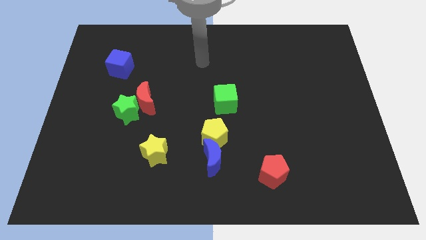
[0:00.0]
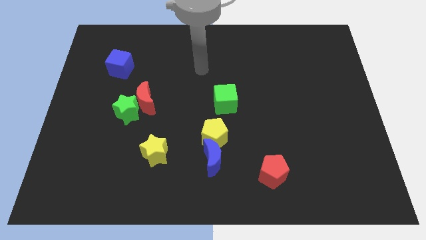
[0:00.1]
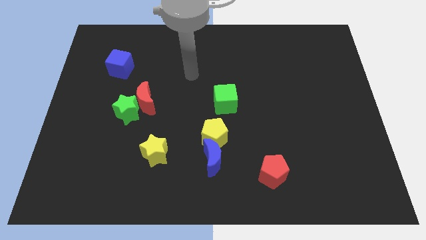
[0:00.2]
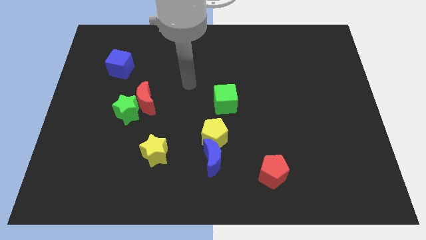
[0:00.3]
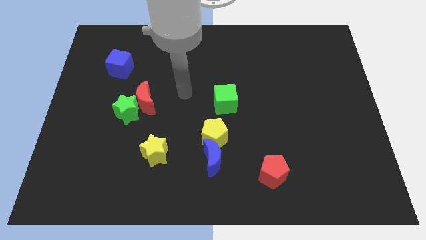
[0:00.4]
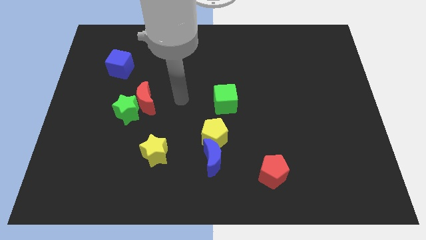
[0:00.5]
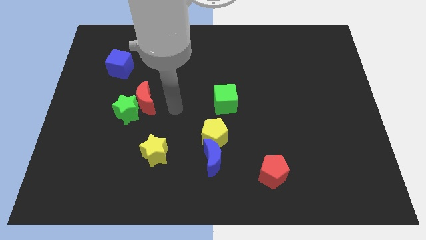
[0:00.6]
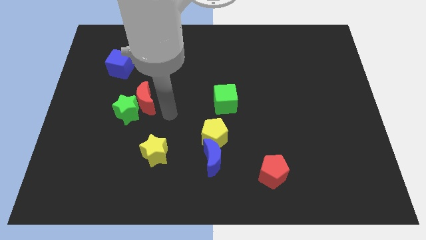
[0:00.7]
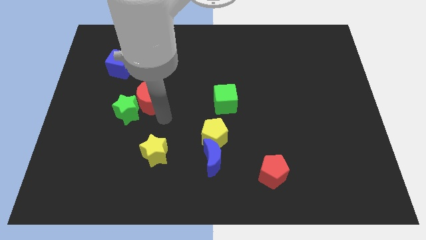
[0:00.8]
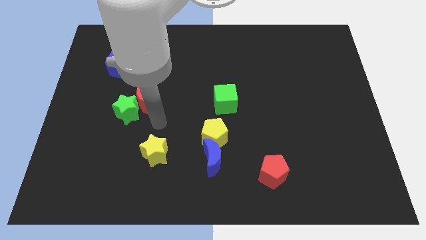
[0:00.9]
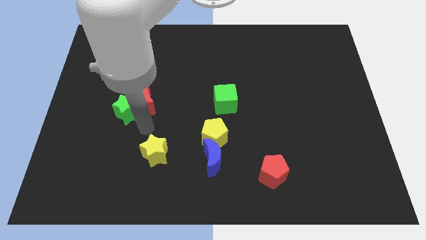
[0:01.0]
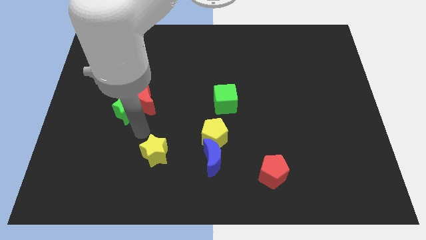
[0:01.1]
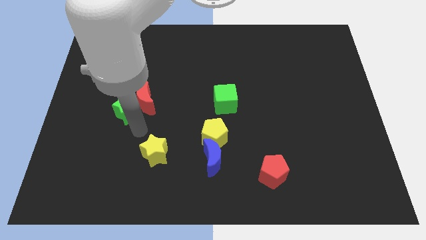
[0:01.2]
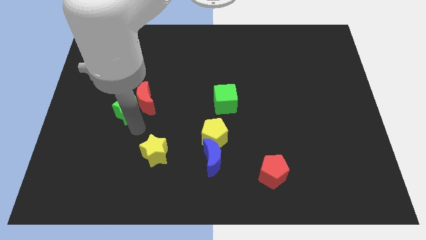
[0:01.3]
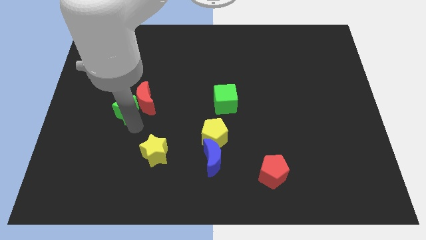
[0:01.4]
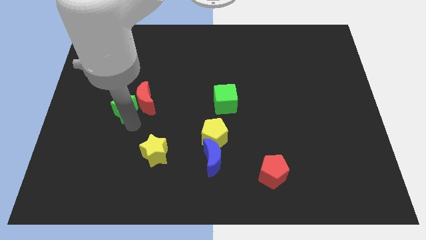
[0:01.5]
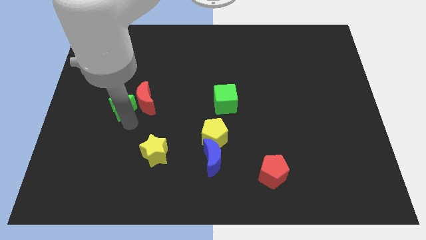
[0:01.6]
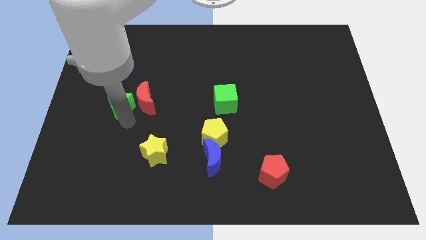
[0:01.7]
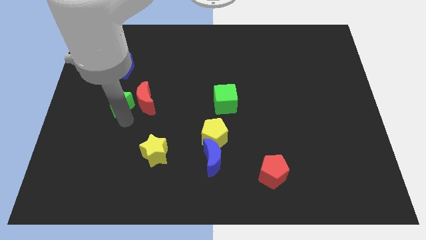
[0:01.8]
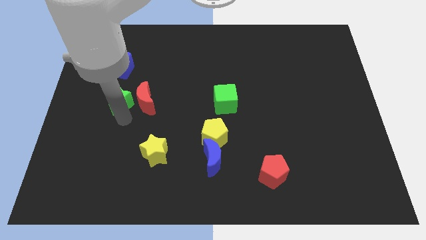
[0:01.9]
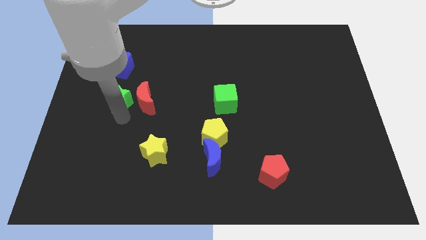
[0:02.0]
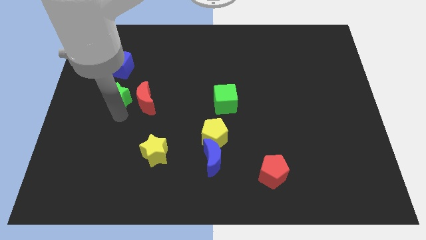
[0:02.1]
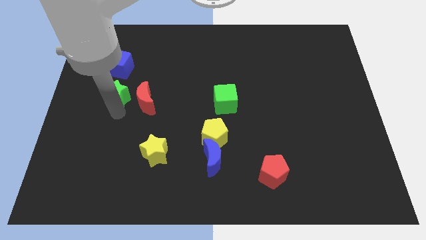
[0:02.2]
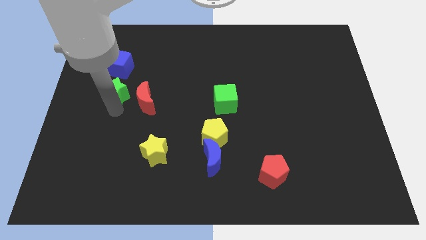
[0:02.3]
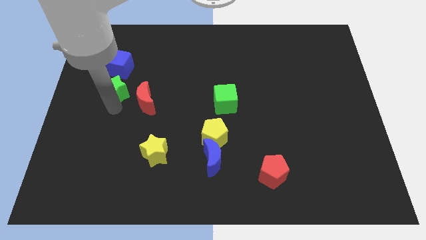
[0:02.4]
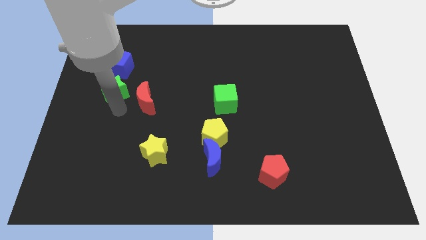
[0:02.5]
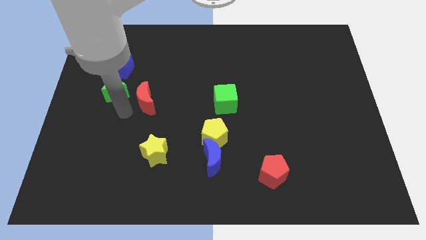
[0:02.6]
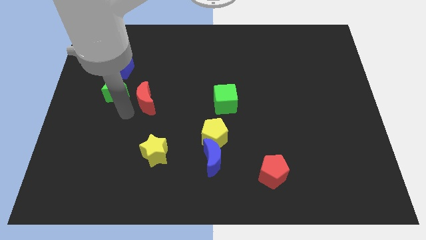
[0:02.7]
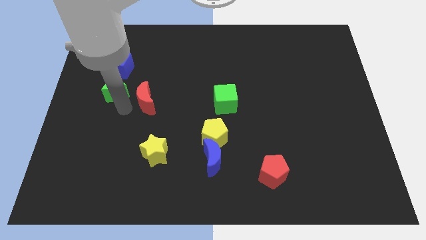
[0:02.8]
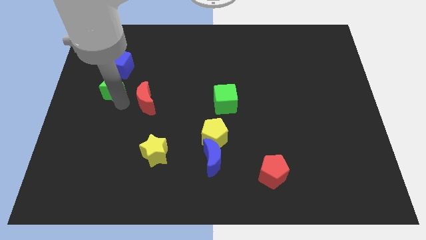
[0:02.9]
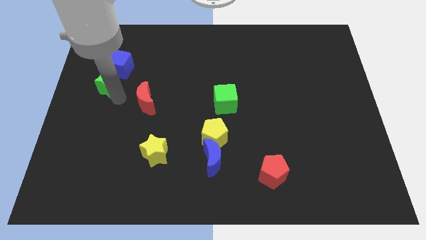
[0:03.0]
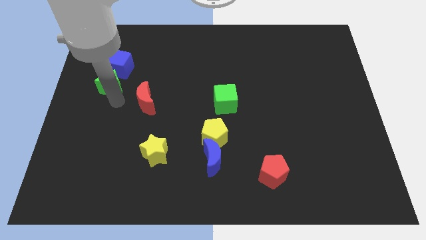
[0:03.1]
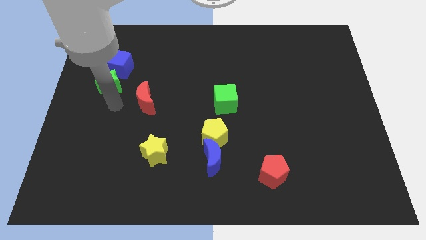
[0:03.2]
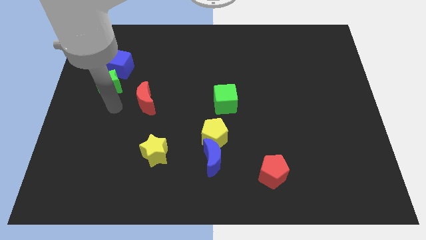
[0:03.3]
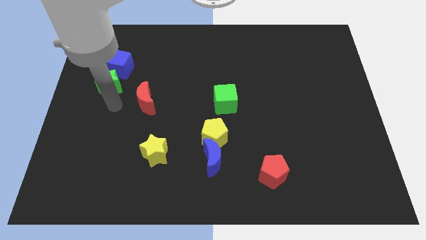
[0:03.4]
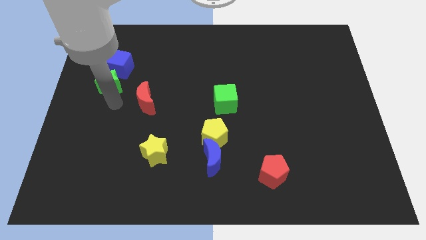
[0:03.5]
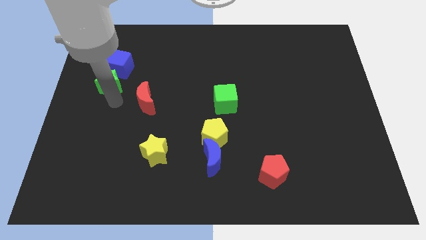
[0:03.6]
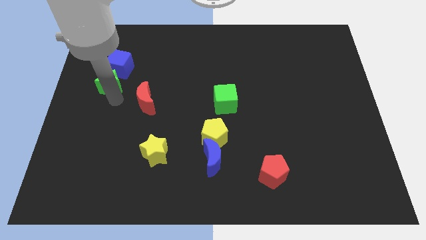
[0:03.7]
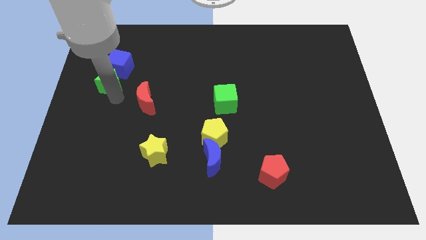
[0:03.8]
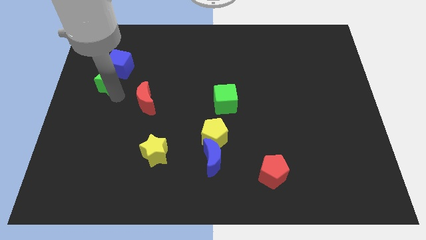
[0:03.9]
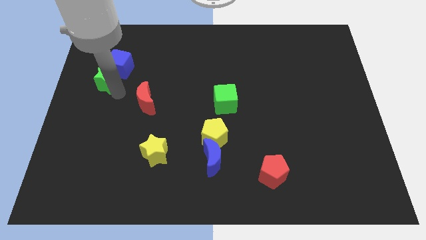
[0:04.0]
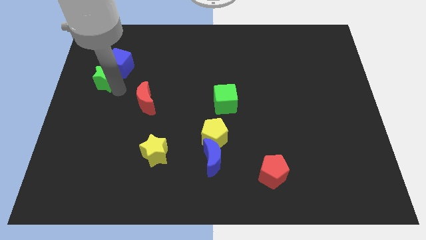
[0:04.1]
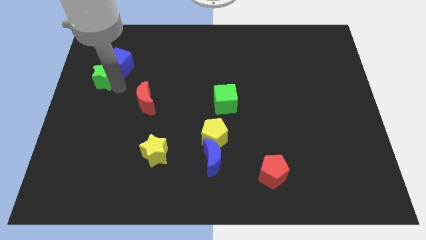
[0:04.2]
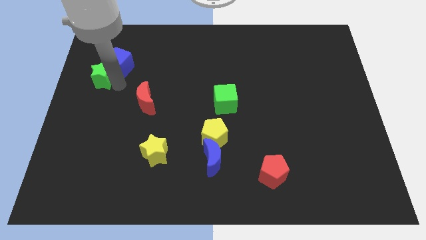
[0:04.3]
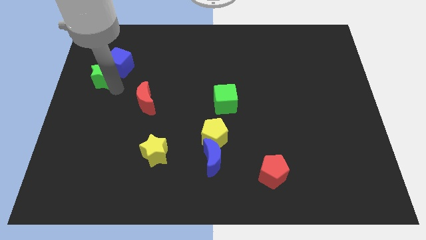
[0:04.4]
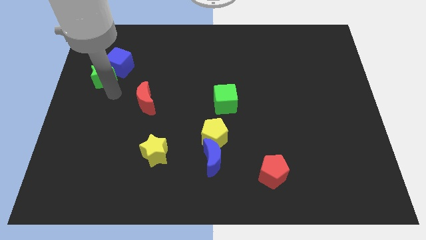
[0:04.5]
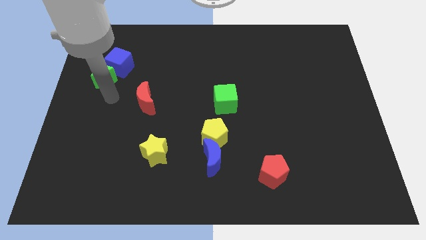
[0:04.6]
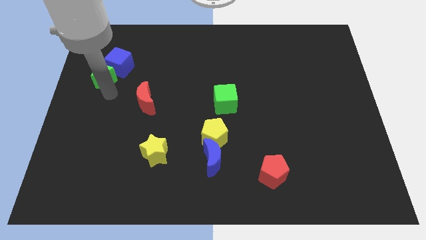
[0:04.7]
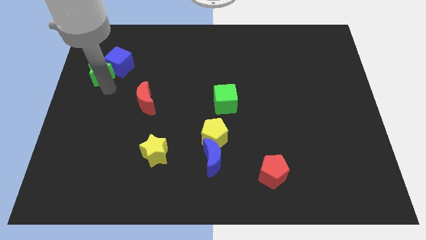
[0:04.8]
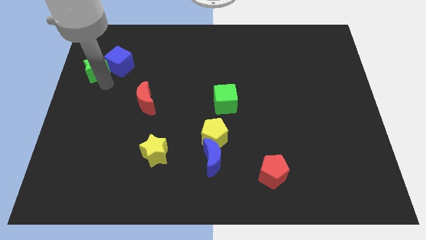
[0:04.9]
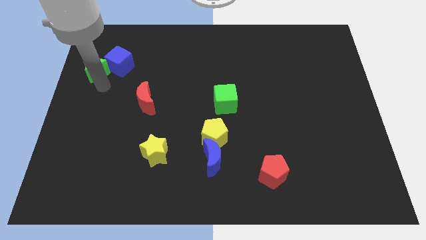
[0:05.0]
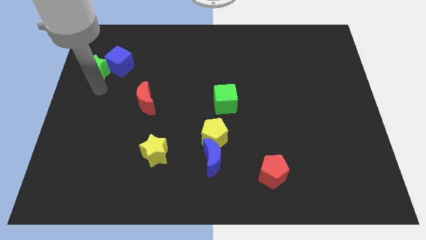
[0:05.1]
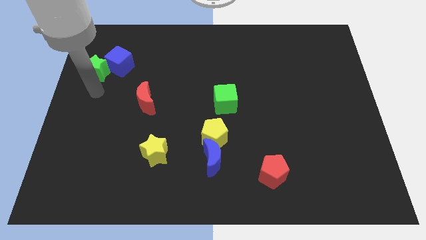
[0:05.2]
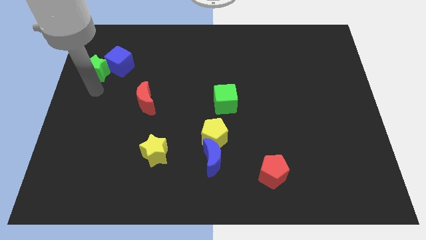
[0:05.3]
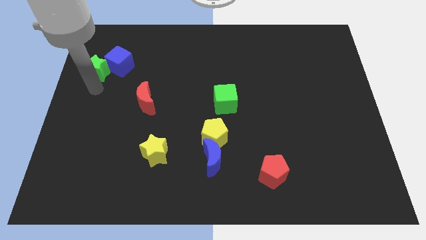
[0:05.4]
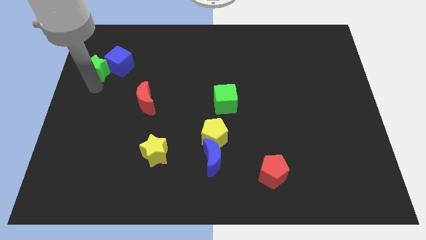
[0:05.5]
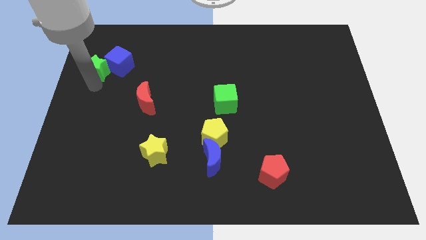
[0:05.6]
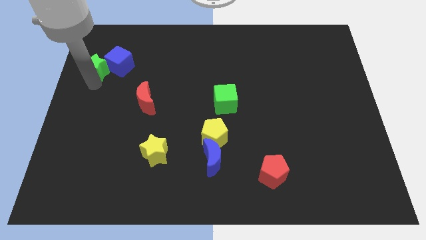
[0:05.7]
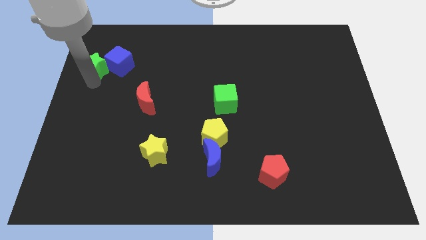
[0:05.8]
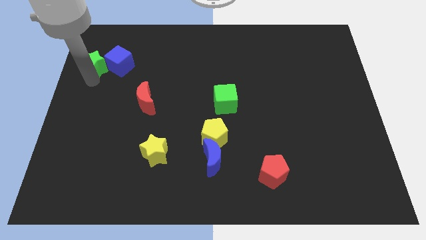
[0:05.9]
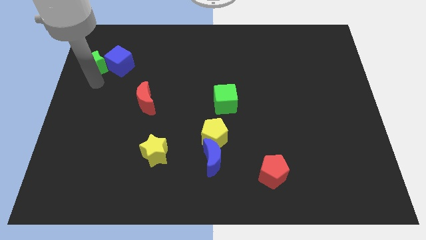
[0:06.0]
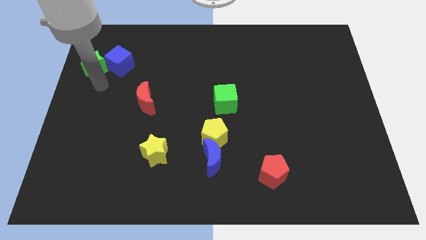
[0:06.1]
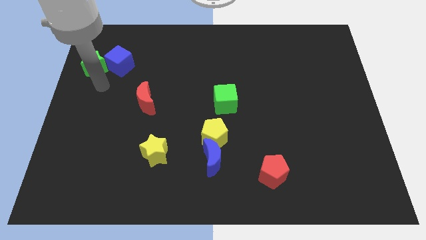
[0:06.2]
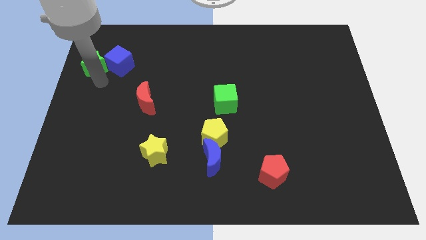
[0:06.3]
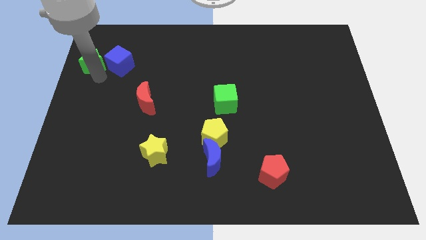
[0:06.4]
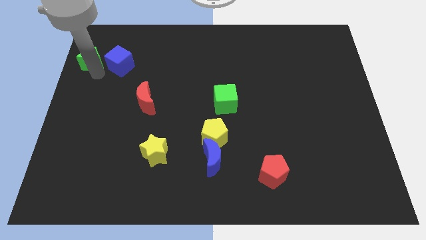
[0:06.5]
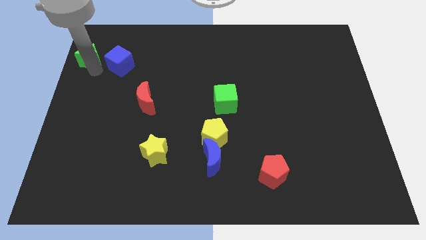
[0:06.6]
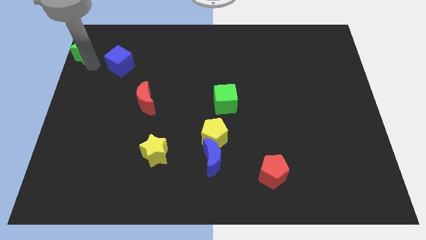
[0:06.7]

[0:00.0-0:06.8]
push the green star to the top left corner

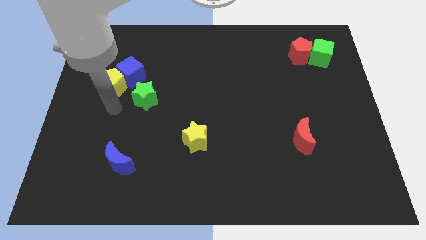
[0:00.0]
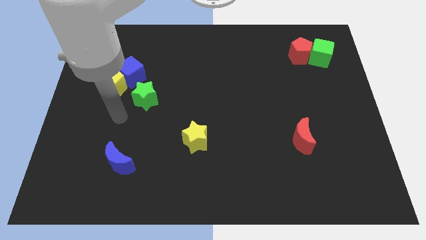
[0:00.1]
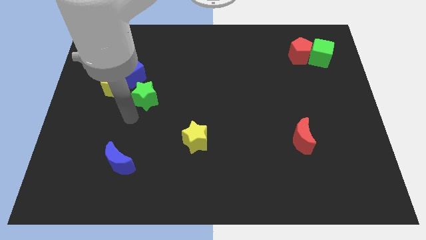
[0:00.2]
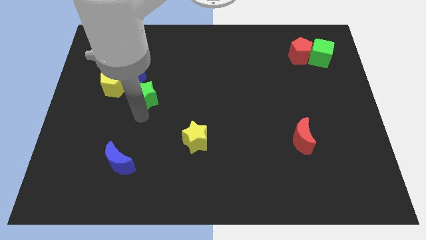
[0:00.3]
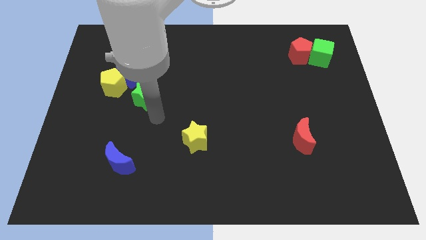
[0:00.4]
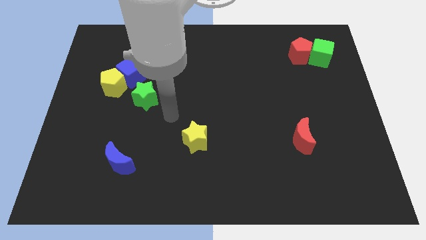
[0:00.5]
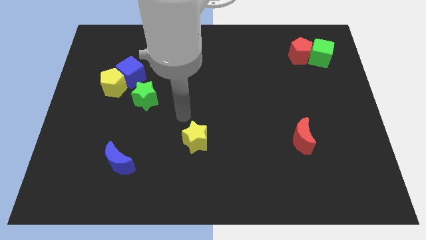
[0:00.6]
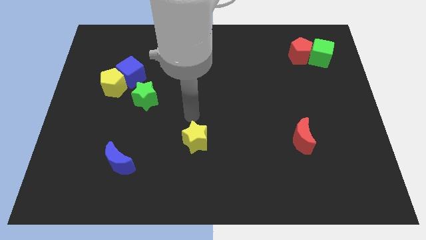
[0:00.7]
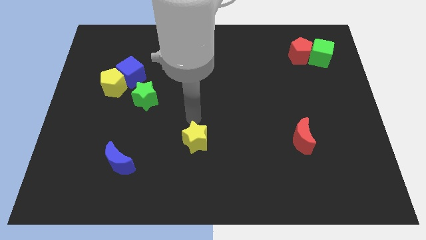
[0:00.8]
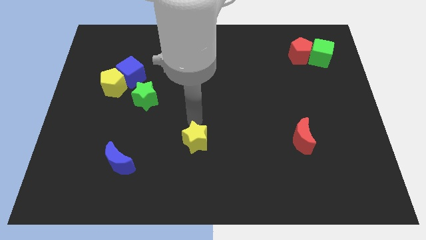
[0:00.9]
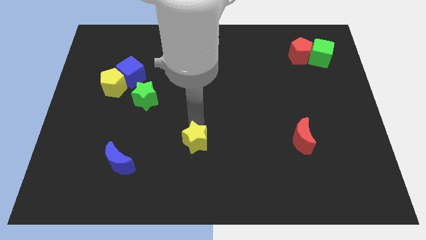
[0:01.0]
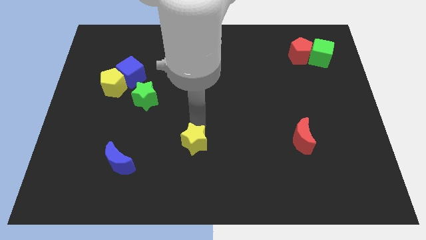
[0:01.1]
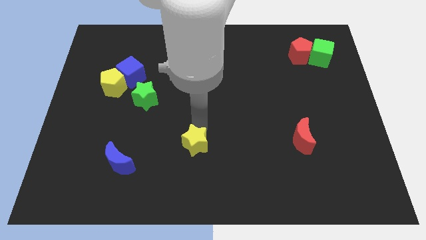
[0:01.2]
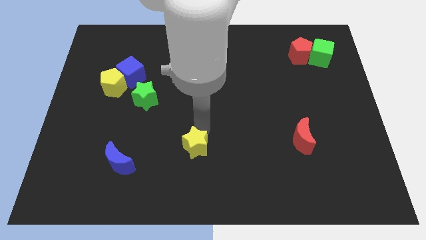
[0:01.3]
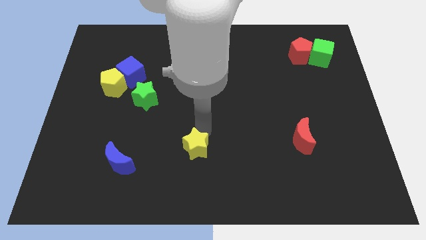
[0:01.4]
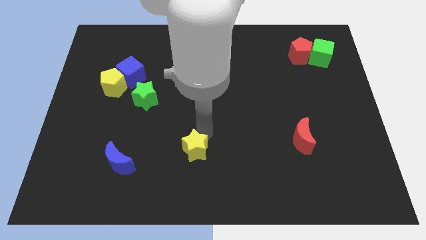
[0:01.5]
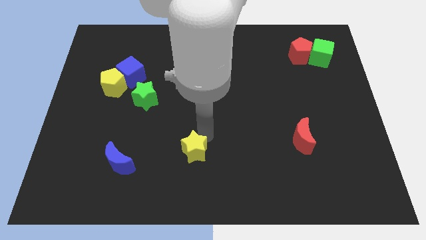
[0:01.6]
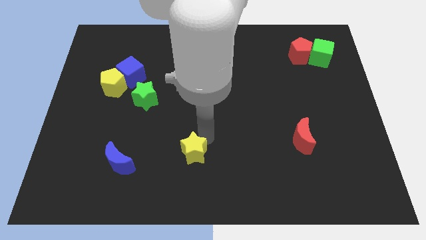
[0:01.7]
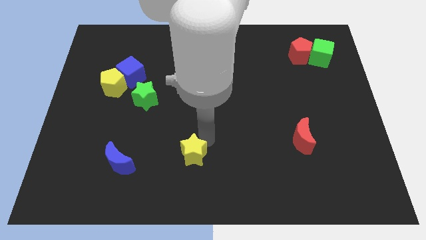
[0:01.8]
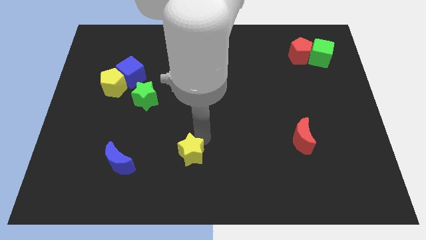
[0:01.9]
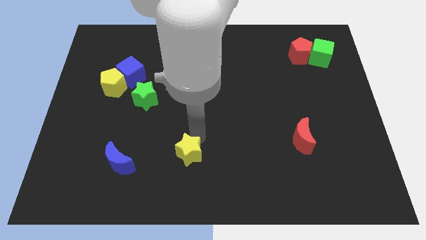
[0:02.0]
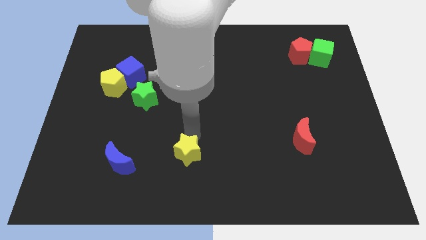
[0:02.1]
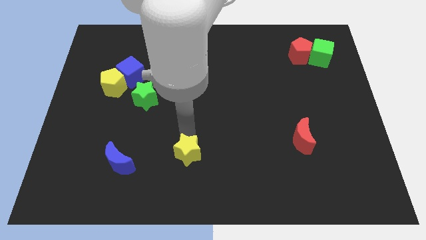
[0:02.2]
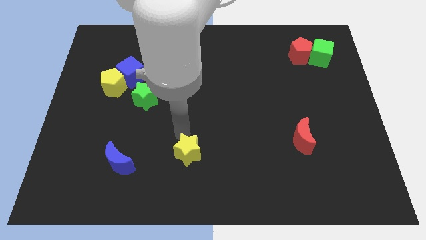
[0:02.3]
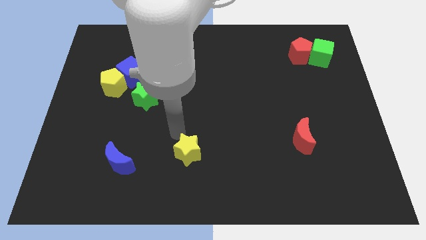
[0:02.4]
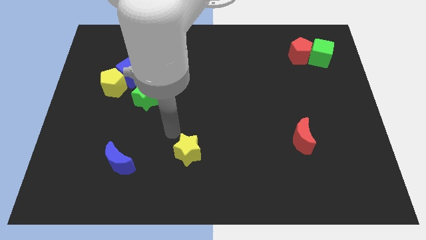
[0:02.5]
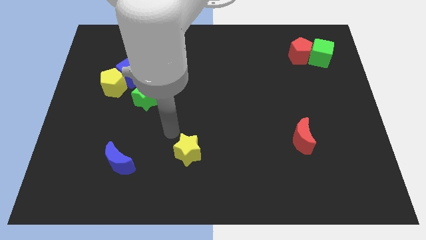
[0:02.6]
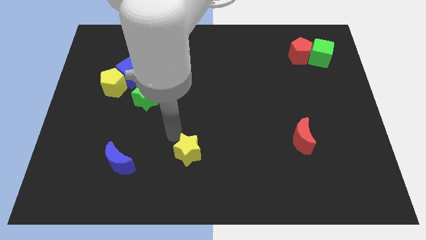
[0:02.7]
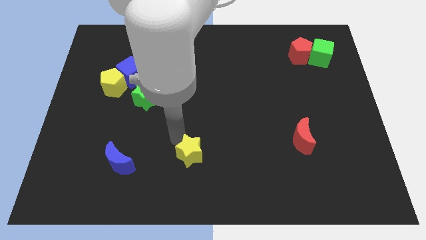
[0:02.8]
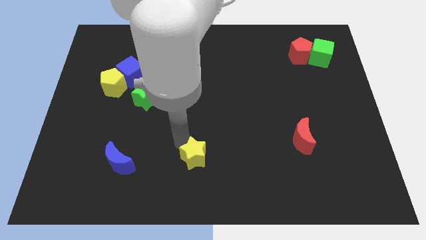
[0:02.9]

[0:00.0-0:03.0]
push the yellow star to the bottom
